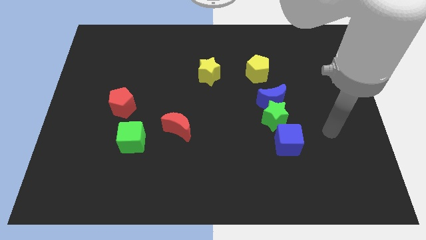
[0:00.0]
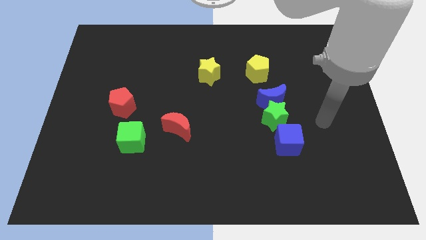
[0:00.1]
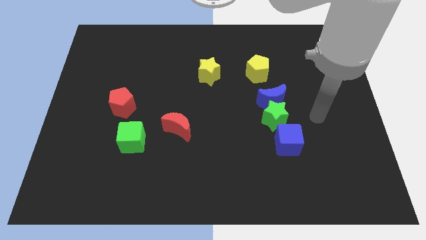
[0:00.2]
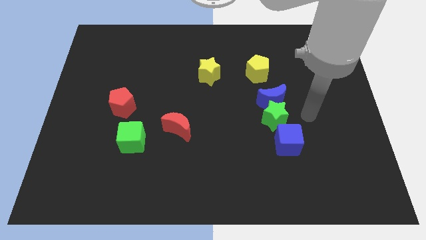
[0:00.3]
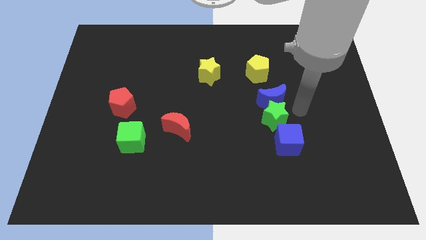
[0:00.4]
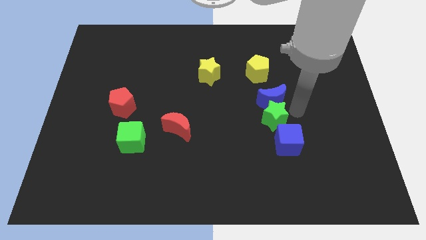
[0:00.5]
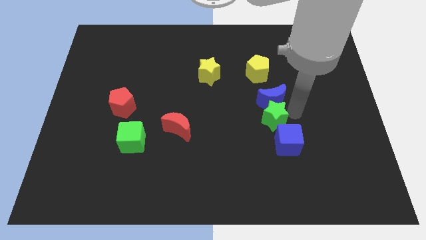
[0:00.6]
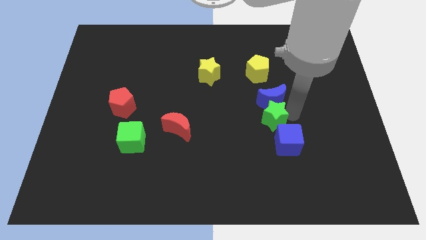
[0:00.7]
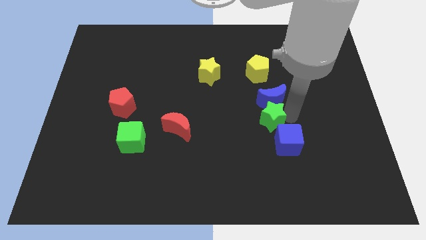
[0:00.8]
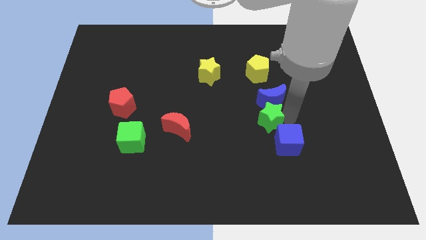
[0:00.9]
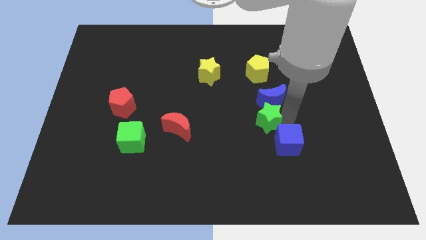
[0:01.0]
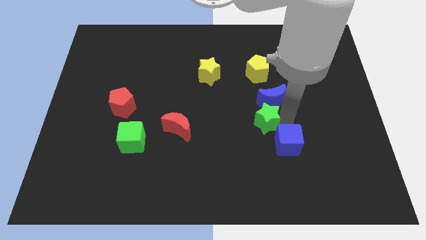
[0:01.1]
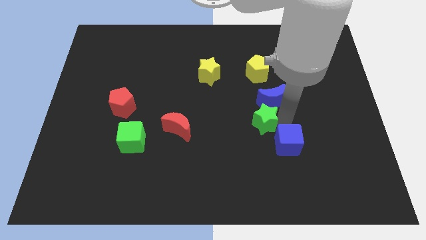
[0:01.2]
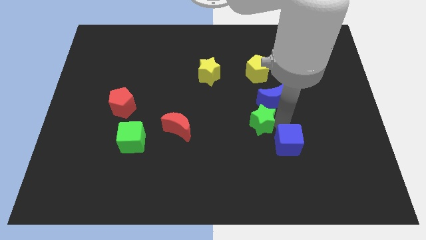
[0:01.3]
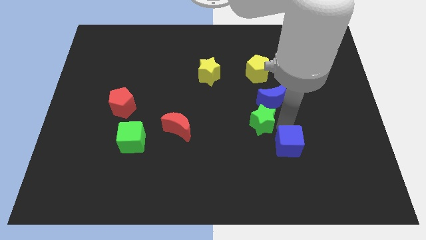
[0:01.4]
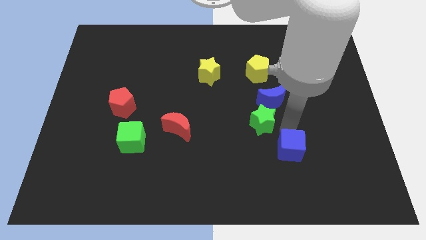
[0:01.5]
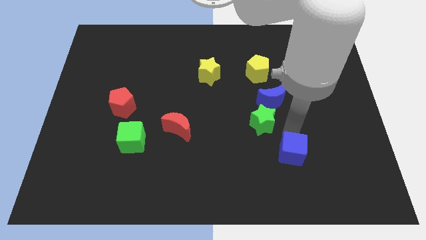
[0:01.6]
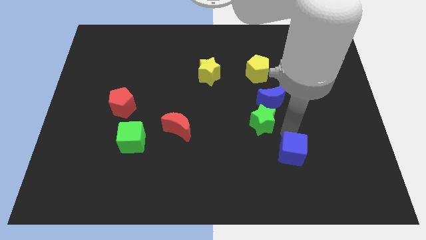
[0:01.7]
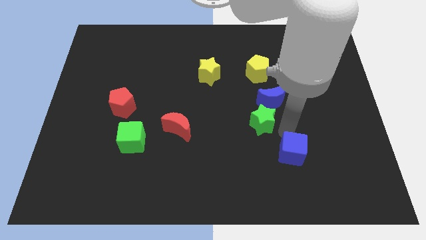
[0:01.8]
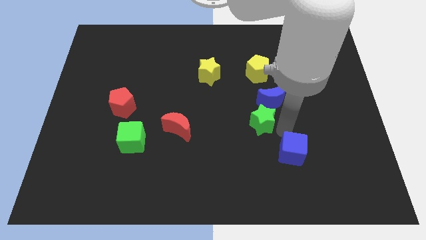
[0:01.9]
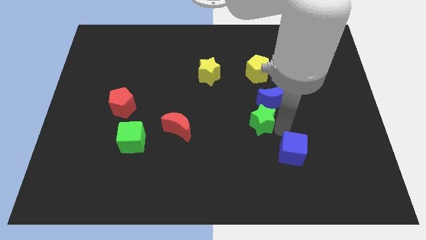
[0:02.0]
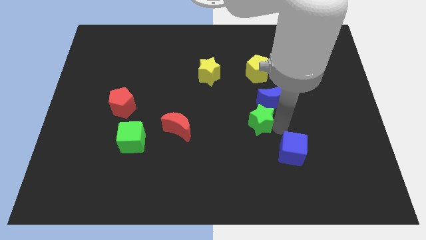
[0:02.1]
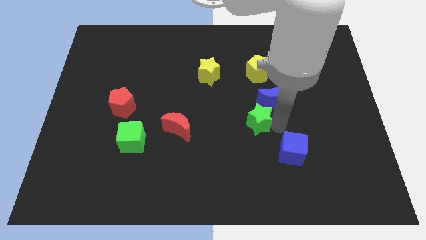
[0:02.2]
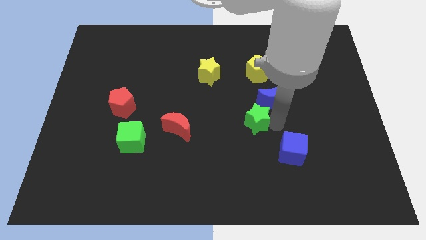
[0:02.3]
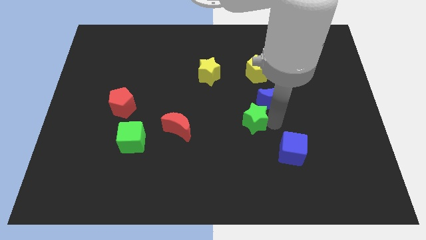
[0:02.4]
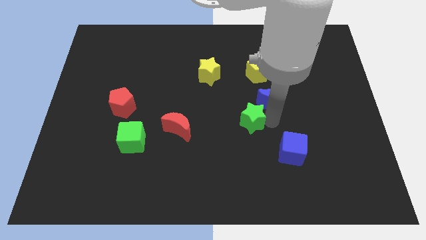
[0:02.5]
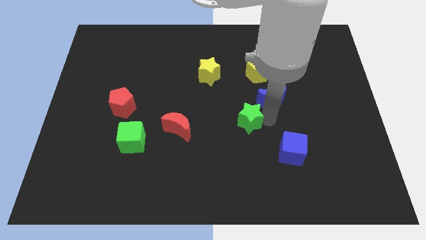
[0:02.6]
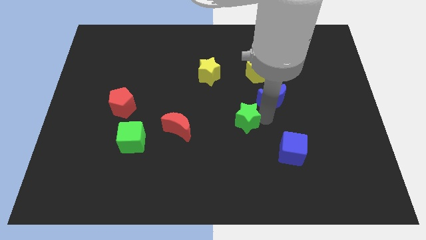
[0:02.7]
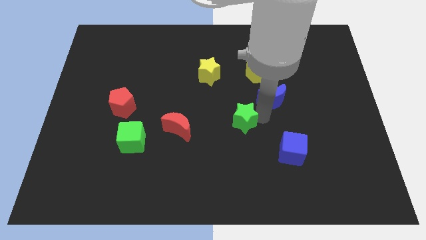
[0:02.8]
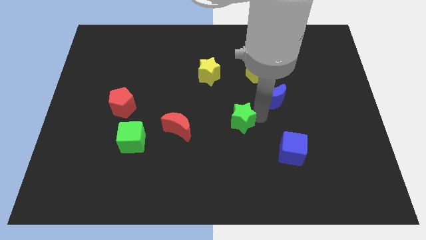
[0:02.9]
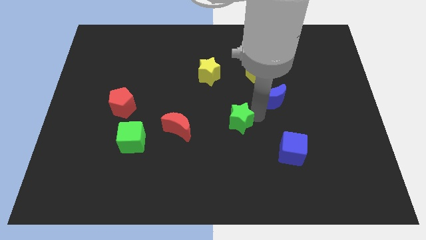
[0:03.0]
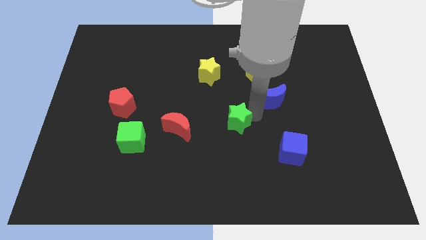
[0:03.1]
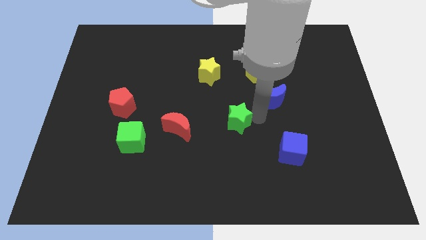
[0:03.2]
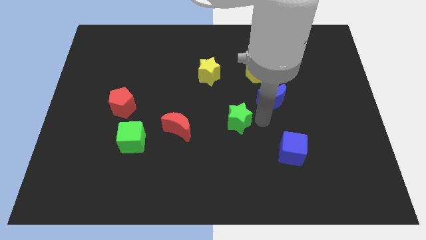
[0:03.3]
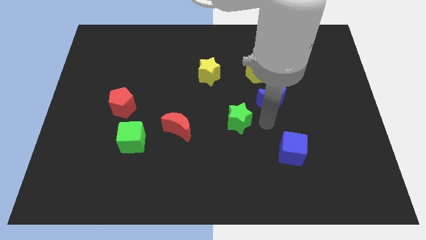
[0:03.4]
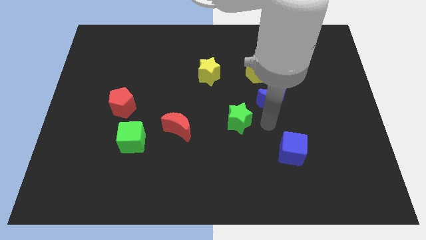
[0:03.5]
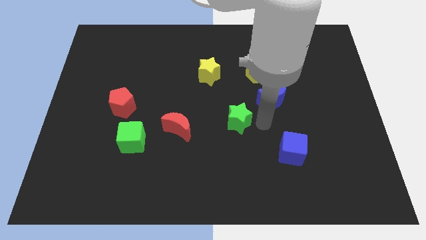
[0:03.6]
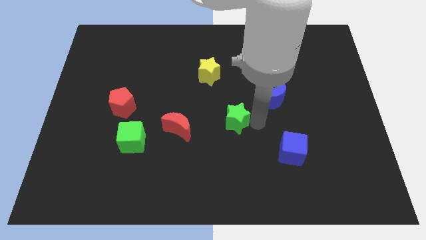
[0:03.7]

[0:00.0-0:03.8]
pull the green star apart from the blue moon and blue cube

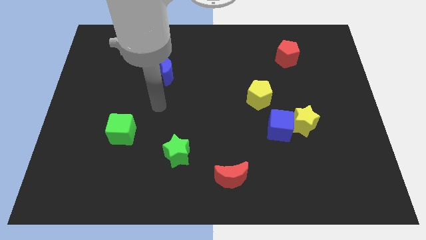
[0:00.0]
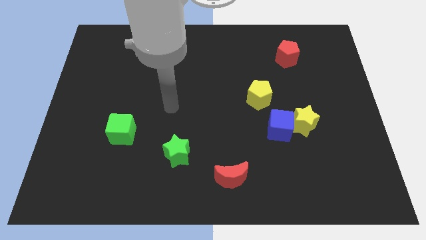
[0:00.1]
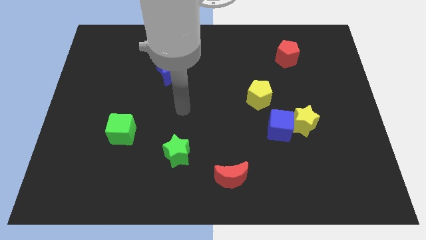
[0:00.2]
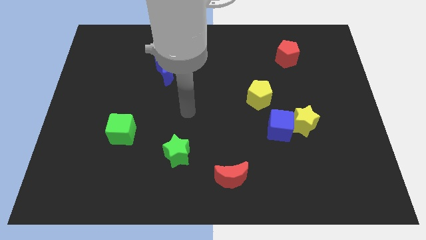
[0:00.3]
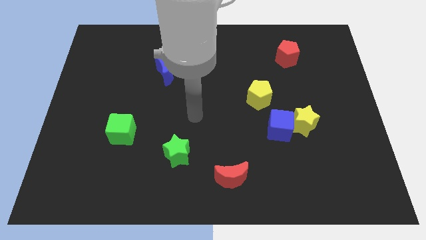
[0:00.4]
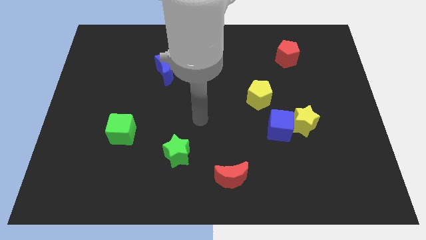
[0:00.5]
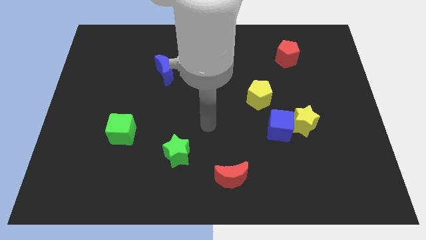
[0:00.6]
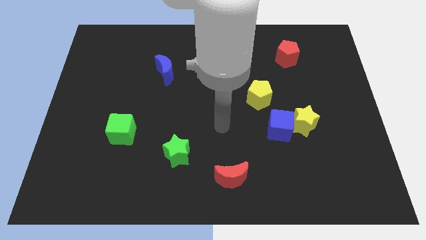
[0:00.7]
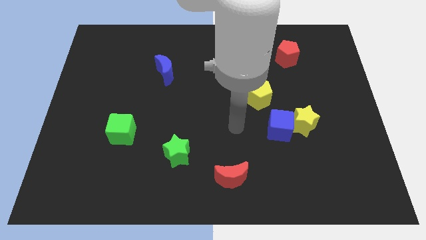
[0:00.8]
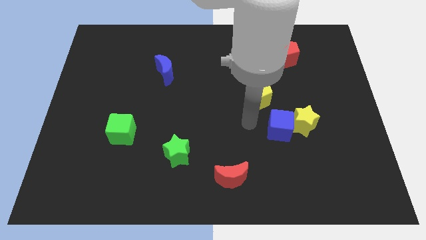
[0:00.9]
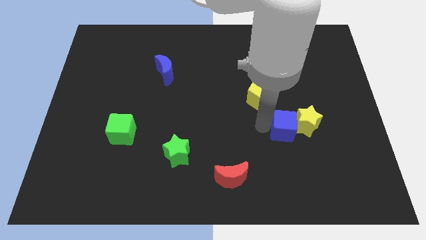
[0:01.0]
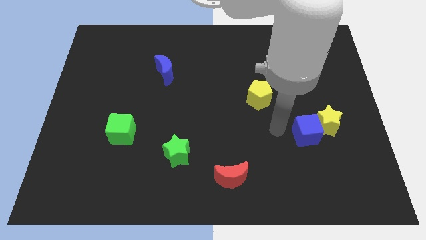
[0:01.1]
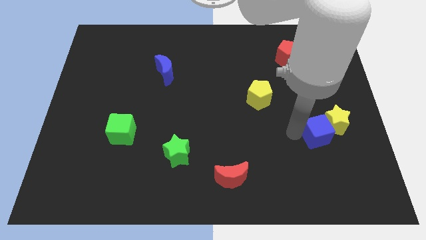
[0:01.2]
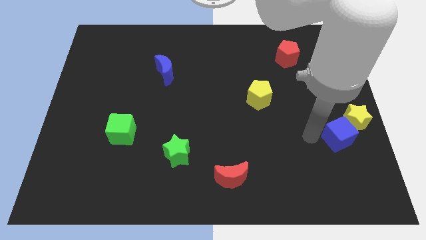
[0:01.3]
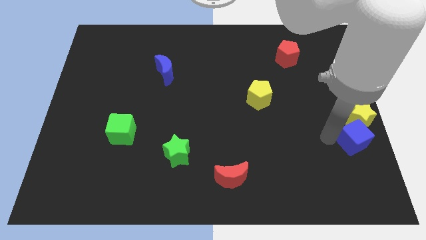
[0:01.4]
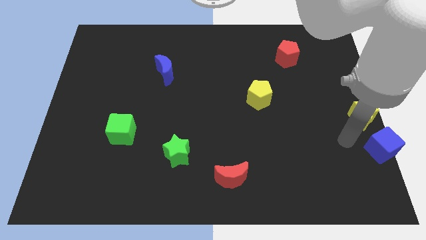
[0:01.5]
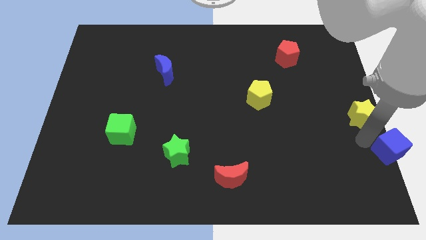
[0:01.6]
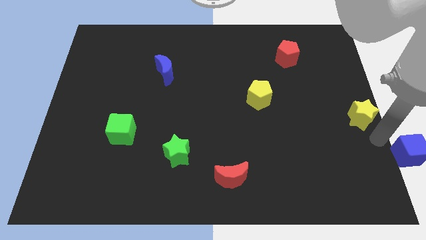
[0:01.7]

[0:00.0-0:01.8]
pull the yellow star apart from the blue cube

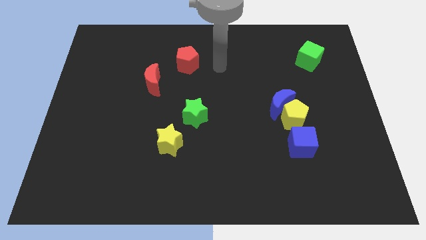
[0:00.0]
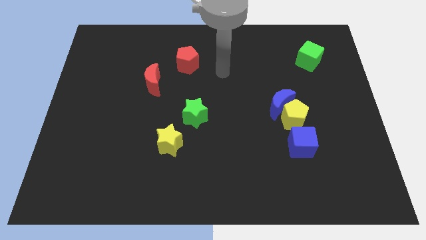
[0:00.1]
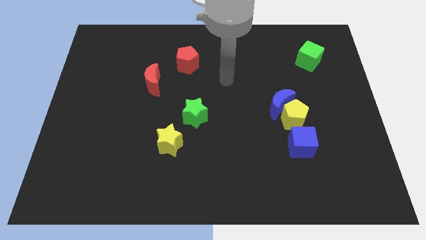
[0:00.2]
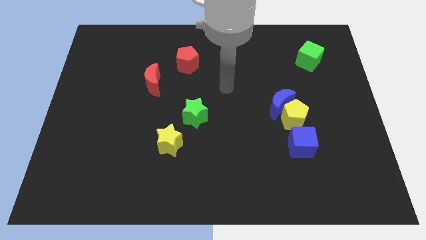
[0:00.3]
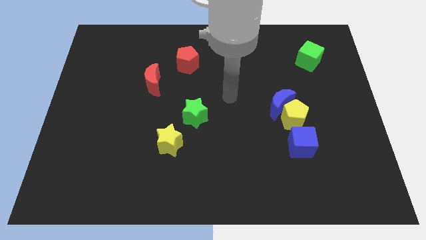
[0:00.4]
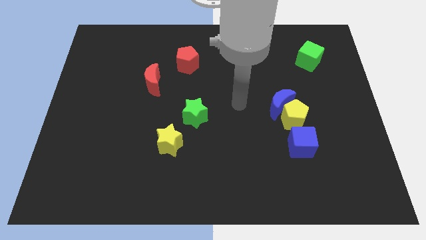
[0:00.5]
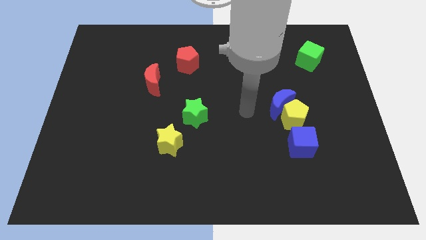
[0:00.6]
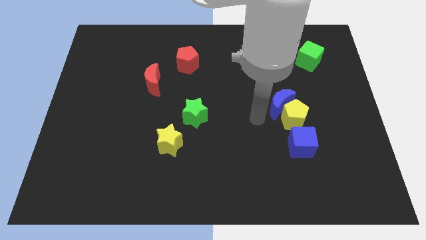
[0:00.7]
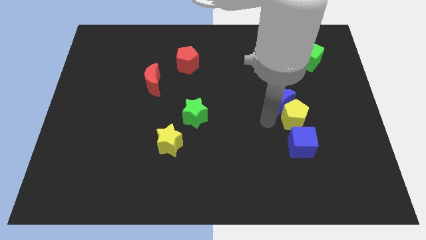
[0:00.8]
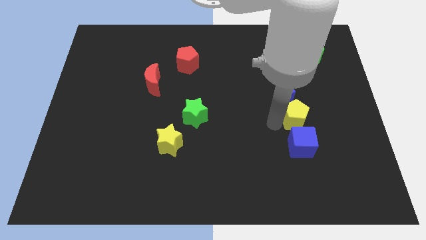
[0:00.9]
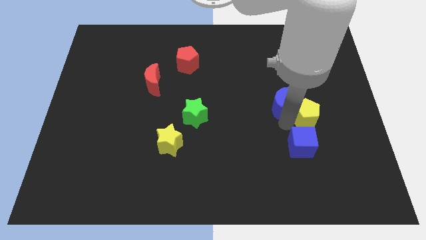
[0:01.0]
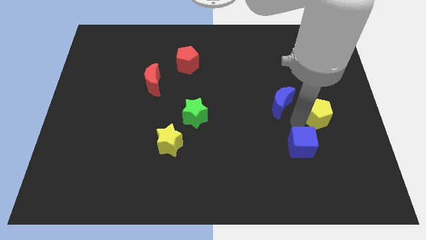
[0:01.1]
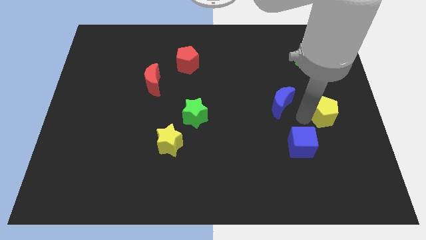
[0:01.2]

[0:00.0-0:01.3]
separate the blue moon from the yellow pentagon

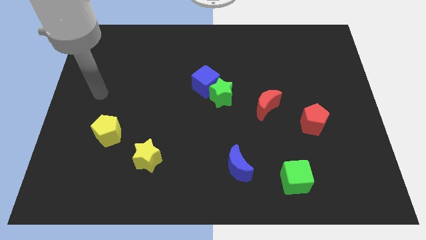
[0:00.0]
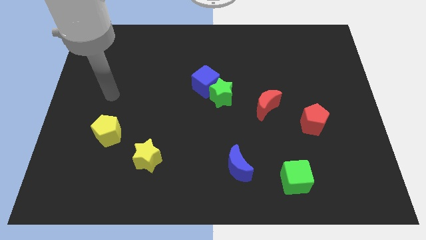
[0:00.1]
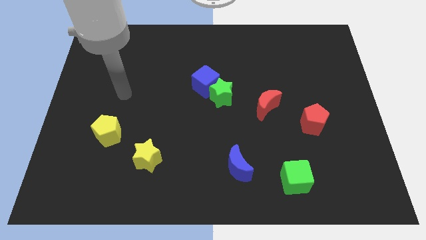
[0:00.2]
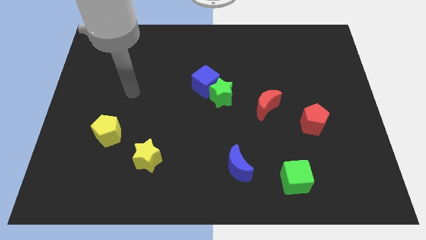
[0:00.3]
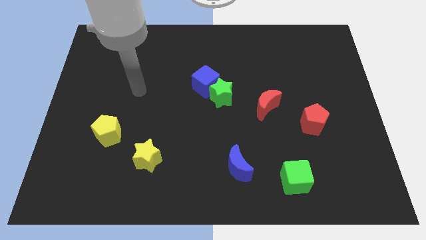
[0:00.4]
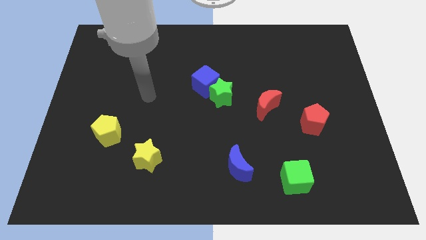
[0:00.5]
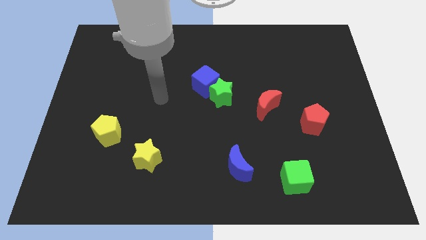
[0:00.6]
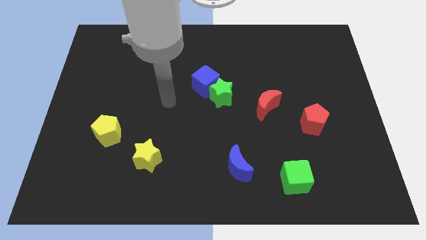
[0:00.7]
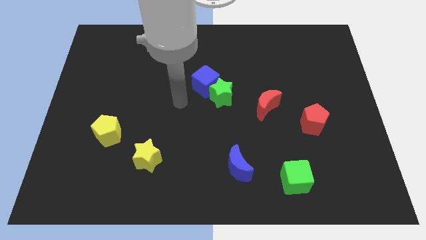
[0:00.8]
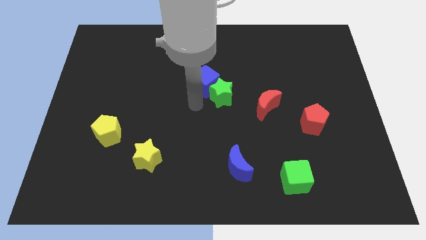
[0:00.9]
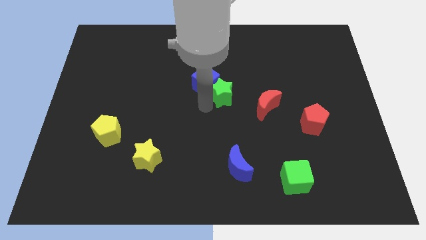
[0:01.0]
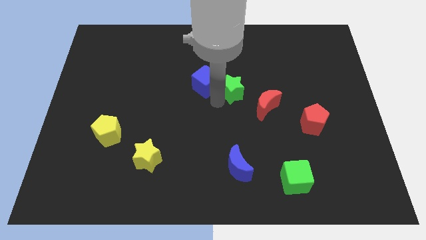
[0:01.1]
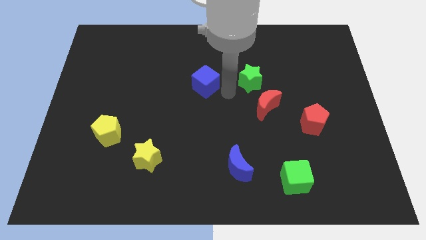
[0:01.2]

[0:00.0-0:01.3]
move the blue cube away from the green star

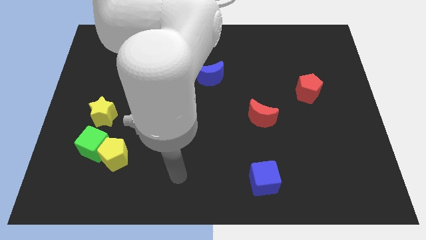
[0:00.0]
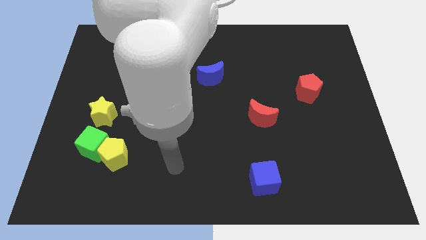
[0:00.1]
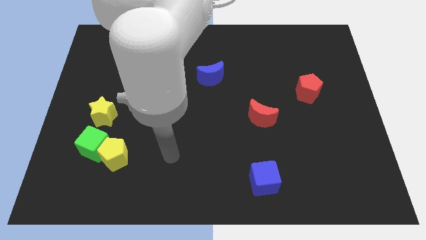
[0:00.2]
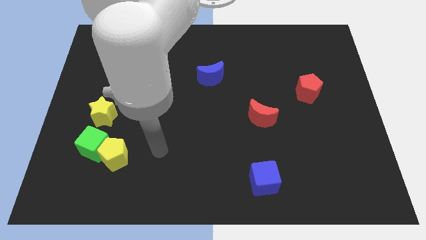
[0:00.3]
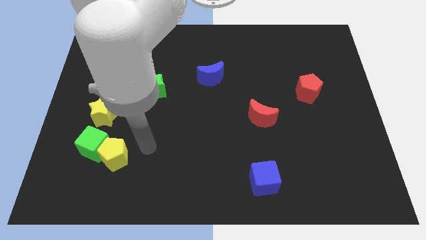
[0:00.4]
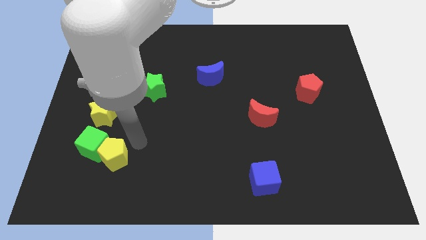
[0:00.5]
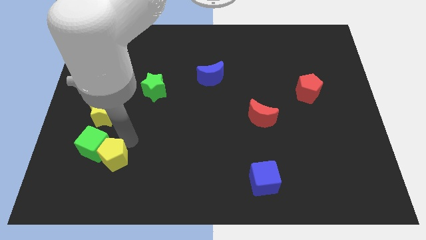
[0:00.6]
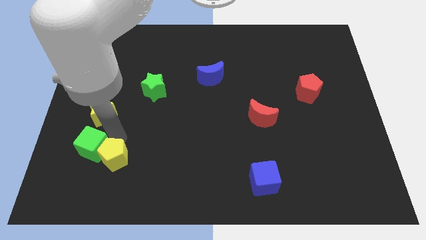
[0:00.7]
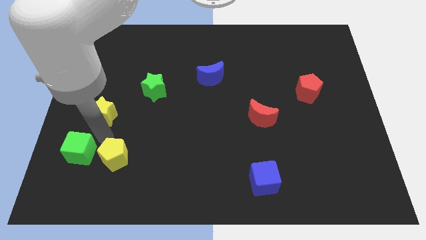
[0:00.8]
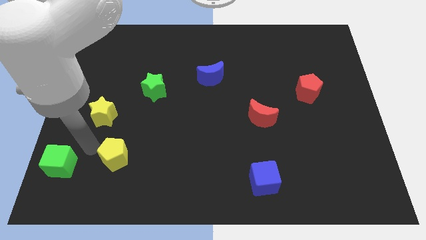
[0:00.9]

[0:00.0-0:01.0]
pull the yellow pentagon apart from the green cube
